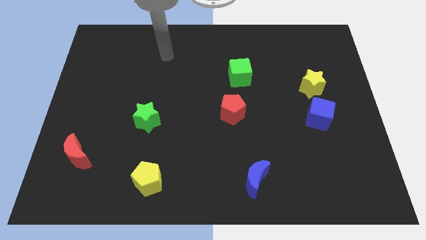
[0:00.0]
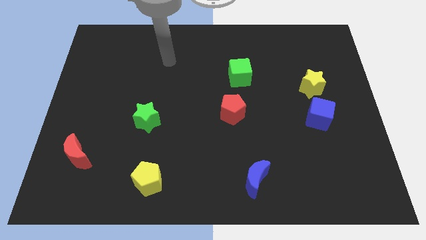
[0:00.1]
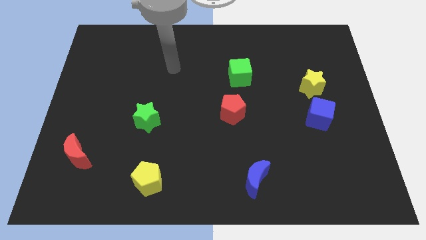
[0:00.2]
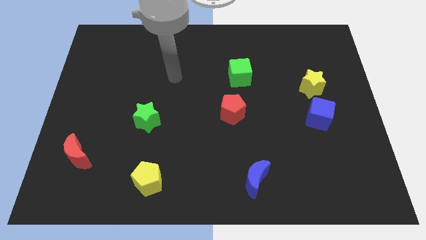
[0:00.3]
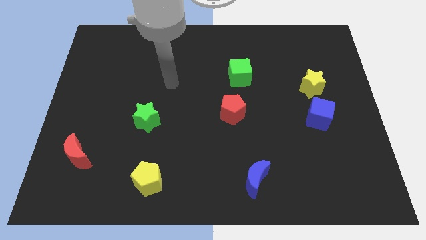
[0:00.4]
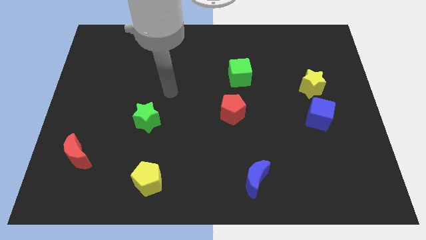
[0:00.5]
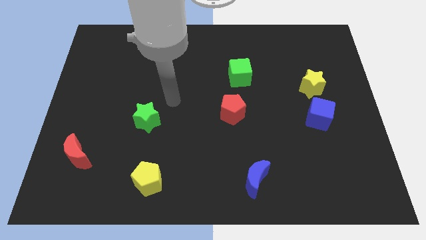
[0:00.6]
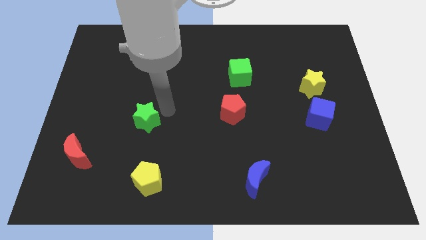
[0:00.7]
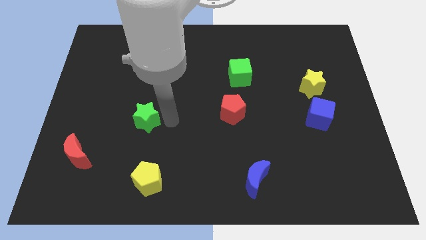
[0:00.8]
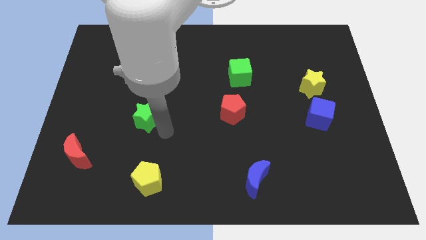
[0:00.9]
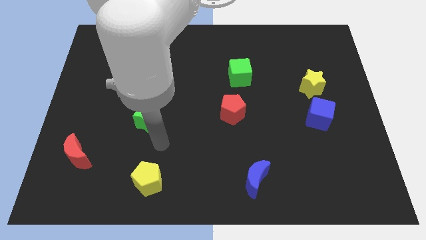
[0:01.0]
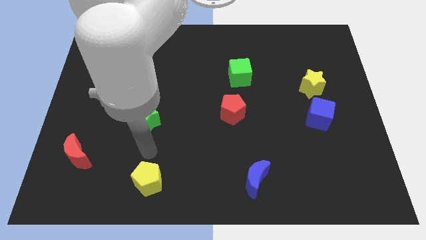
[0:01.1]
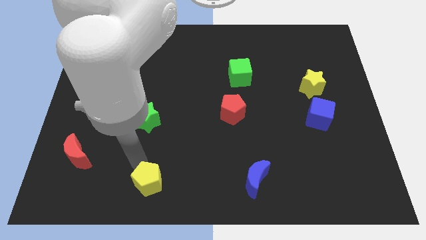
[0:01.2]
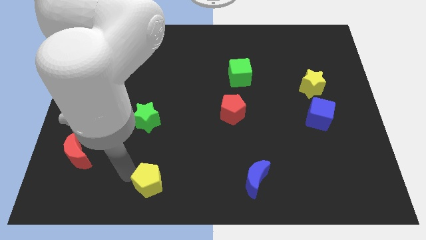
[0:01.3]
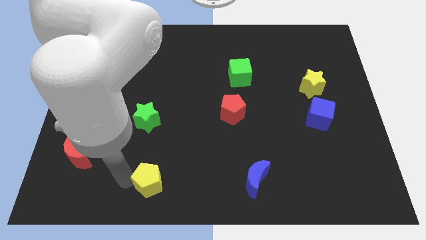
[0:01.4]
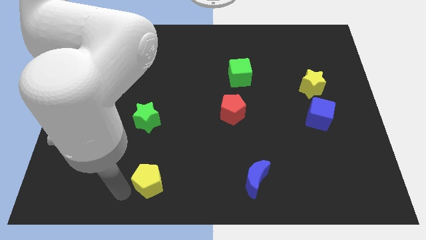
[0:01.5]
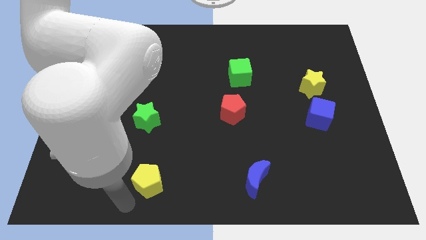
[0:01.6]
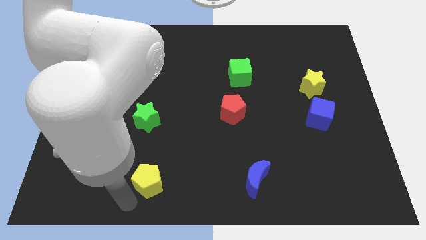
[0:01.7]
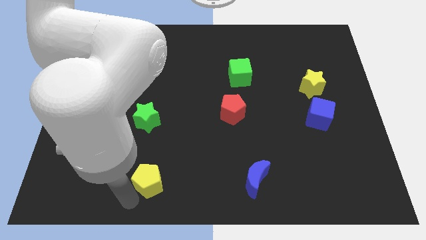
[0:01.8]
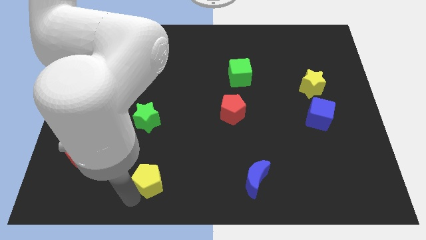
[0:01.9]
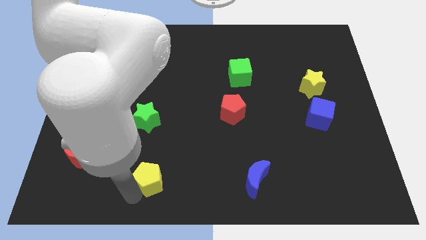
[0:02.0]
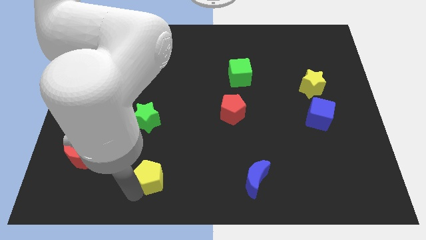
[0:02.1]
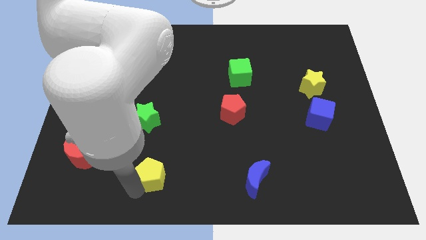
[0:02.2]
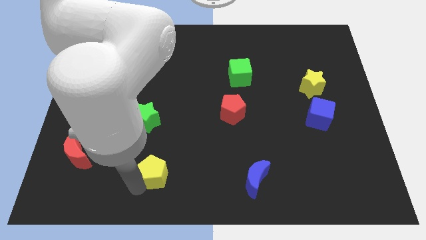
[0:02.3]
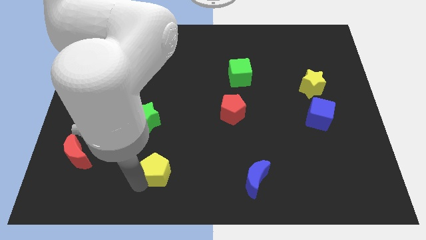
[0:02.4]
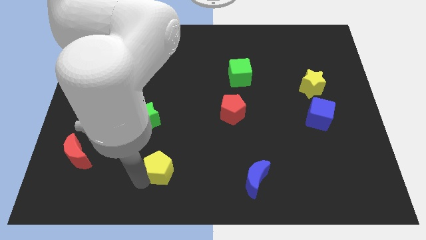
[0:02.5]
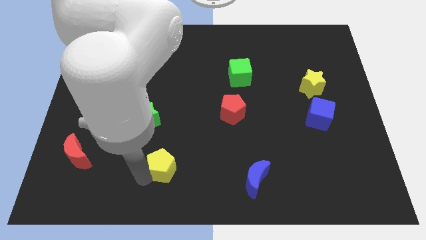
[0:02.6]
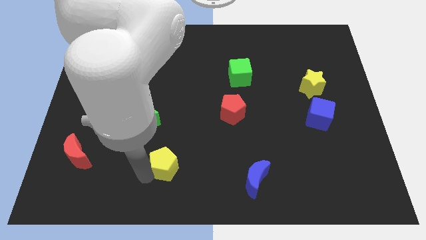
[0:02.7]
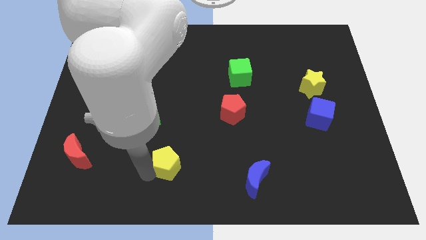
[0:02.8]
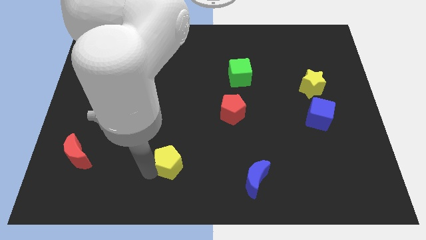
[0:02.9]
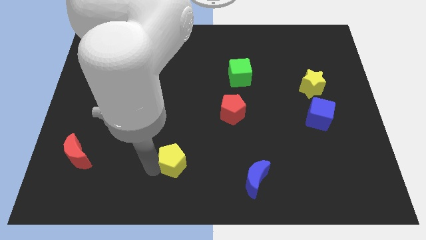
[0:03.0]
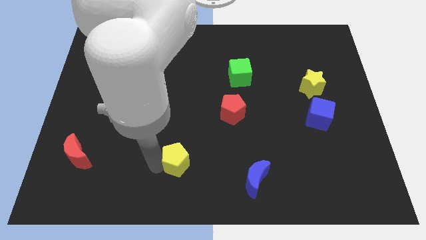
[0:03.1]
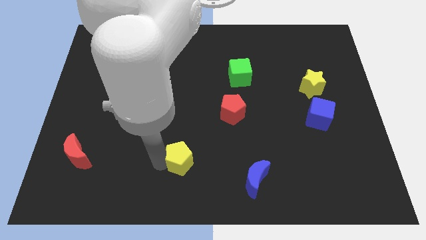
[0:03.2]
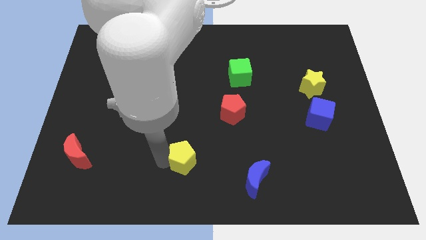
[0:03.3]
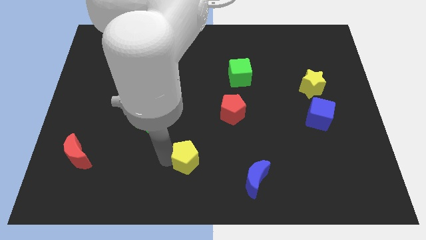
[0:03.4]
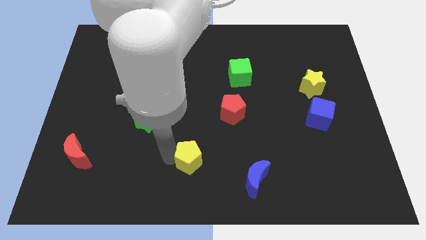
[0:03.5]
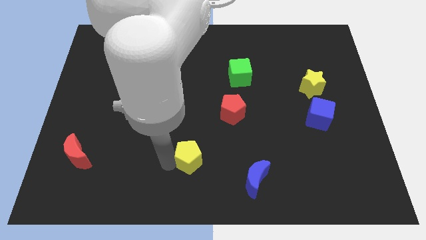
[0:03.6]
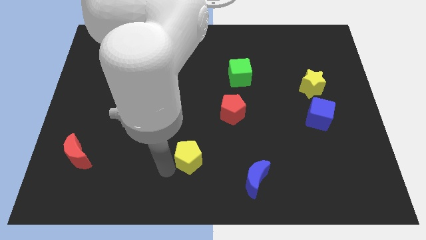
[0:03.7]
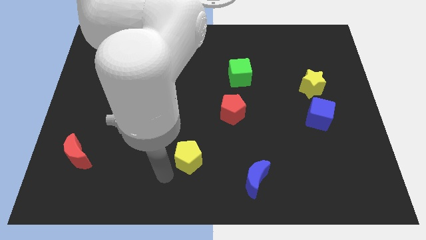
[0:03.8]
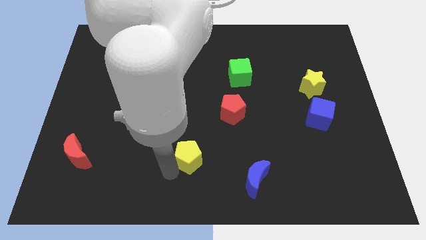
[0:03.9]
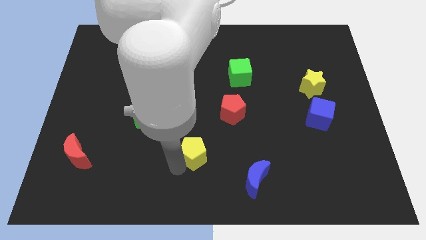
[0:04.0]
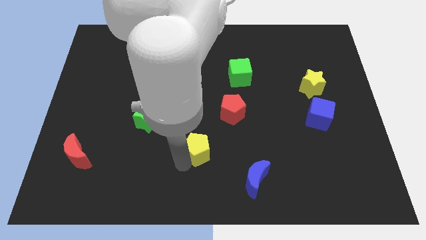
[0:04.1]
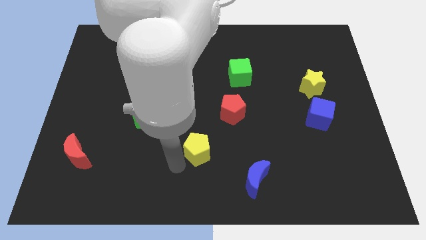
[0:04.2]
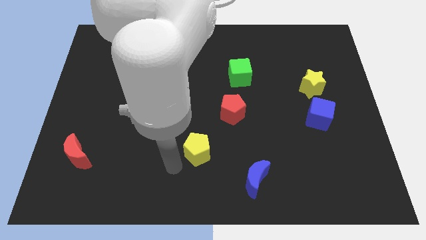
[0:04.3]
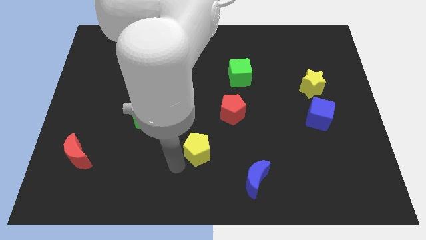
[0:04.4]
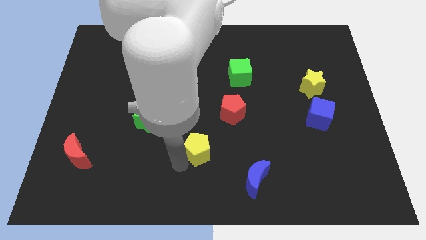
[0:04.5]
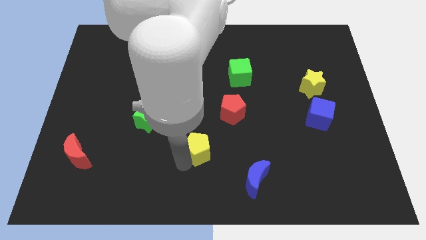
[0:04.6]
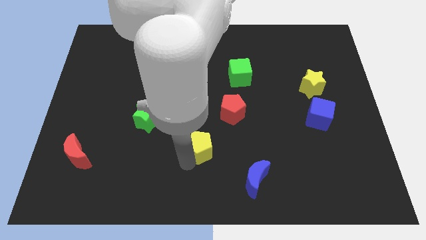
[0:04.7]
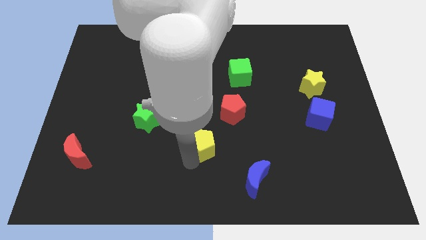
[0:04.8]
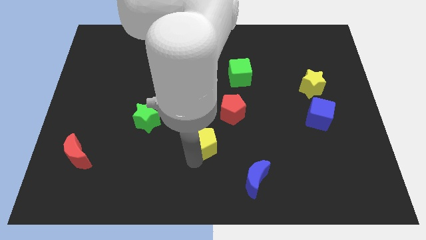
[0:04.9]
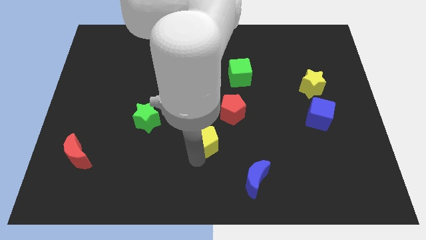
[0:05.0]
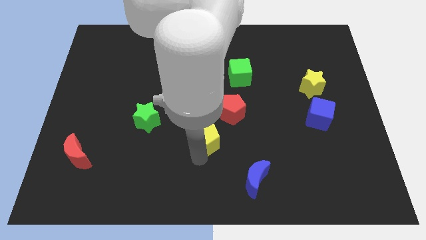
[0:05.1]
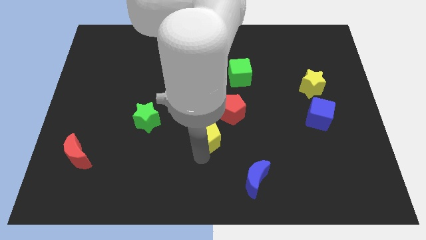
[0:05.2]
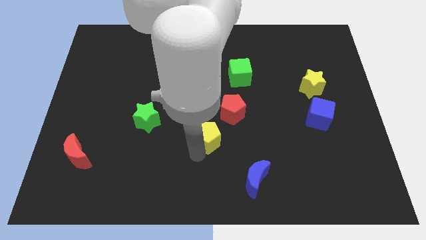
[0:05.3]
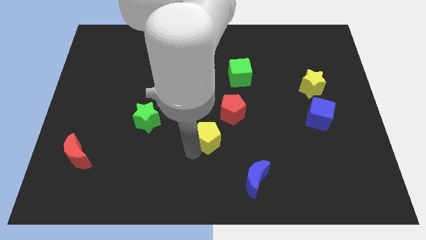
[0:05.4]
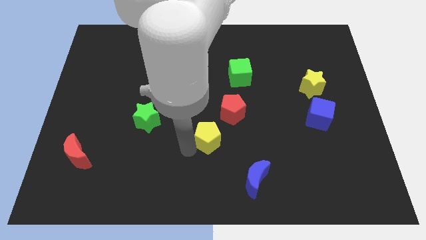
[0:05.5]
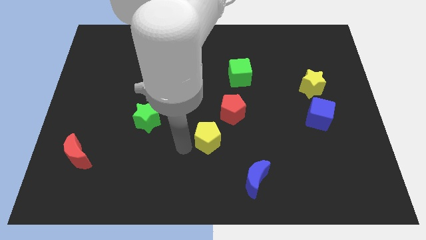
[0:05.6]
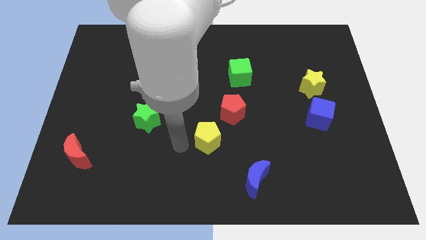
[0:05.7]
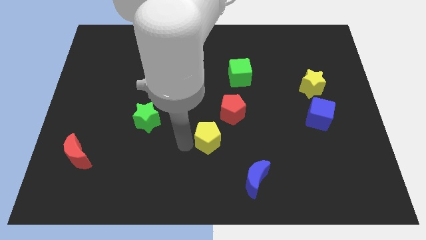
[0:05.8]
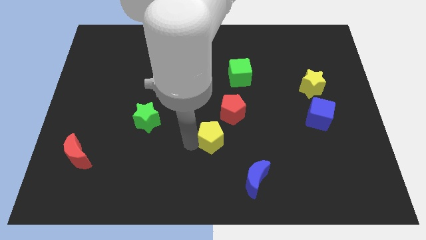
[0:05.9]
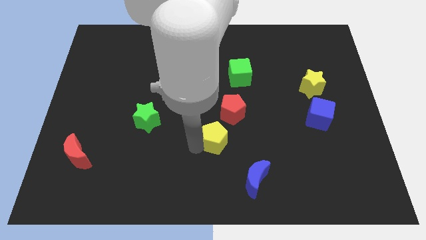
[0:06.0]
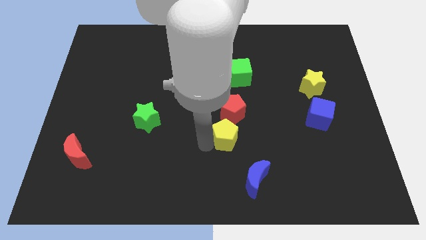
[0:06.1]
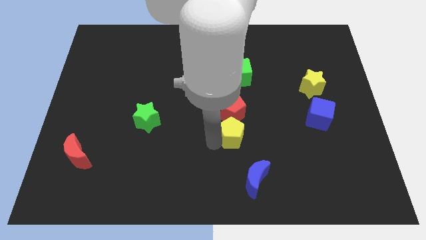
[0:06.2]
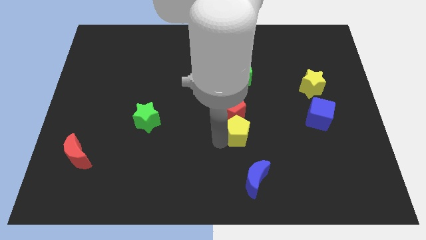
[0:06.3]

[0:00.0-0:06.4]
push the yellow pentagon upwards and to the right diagonally

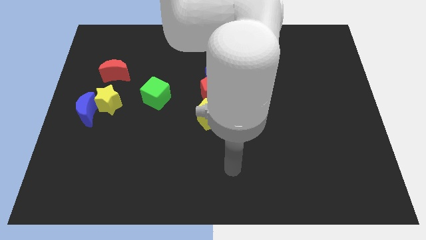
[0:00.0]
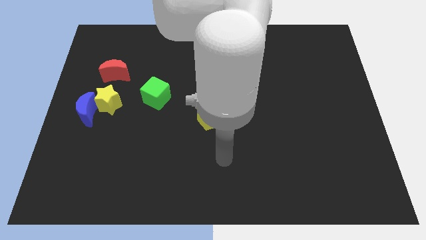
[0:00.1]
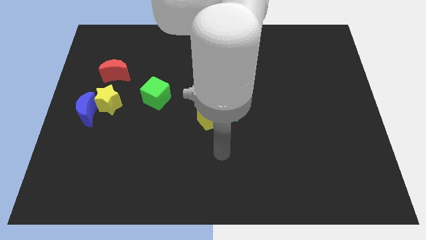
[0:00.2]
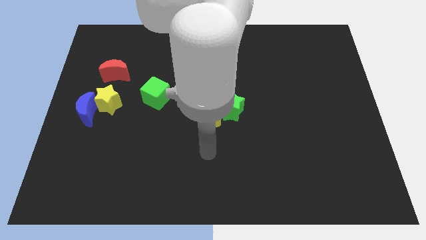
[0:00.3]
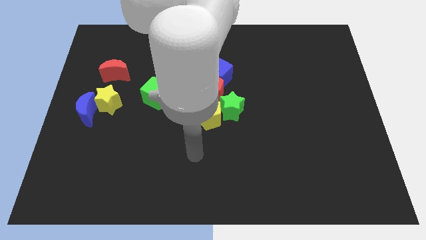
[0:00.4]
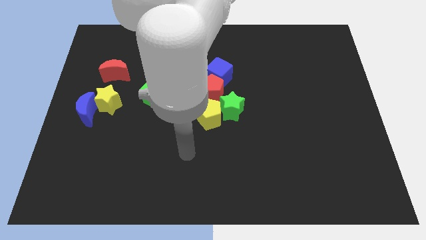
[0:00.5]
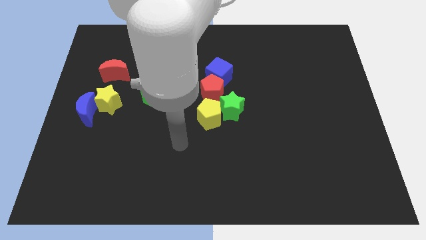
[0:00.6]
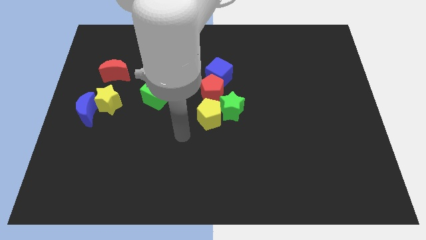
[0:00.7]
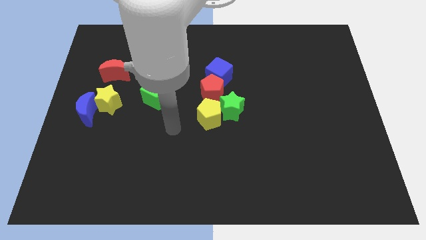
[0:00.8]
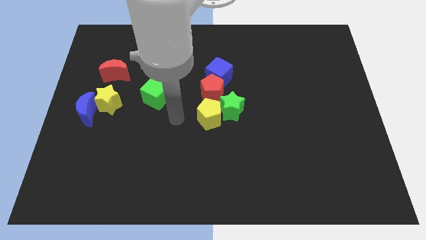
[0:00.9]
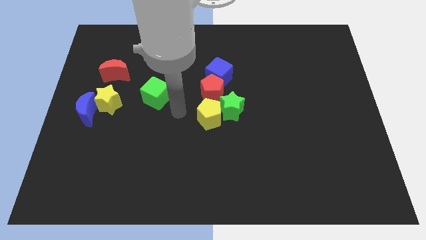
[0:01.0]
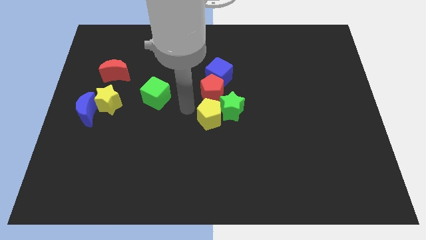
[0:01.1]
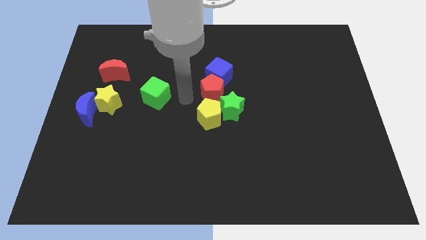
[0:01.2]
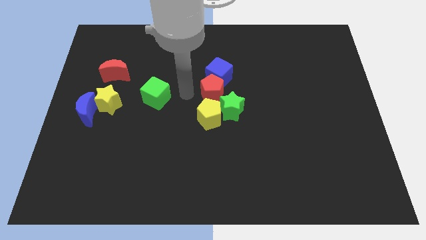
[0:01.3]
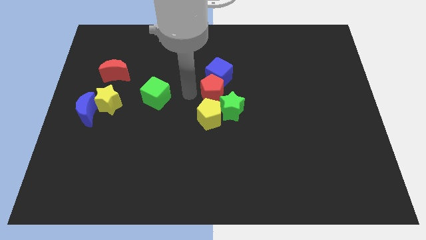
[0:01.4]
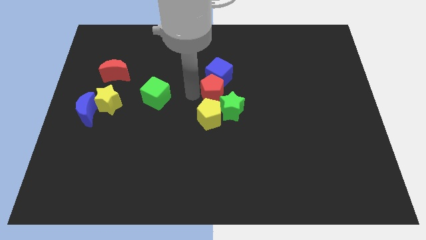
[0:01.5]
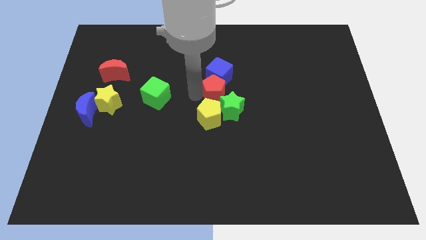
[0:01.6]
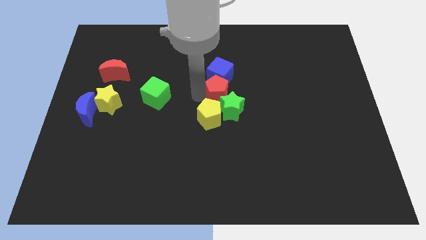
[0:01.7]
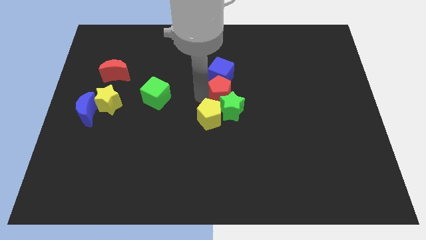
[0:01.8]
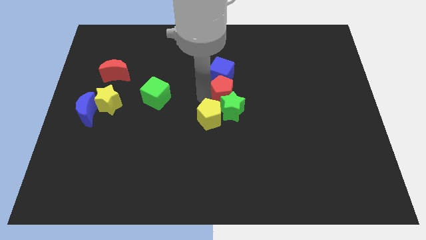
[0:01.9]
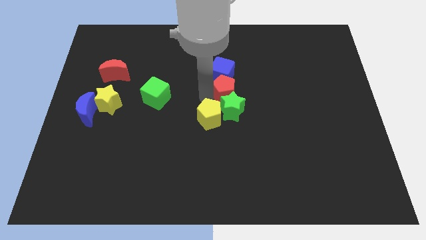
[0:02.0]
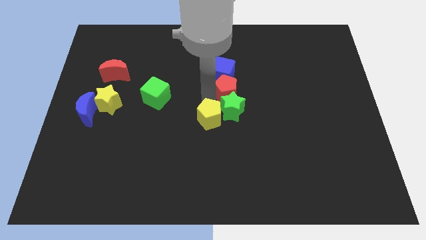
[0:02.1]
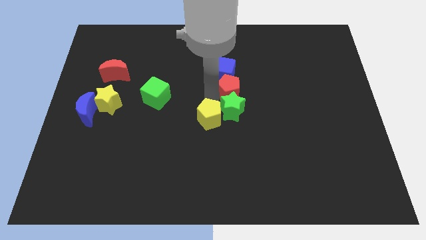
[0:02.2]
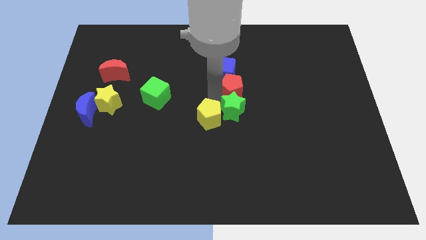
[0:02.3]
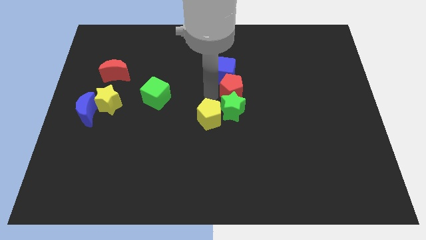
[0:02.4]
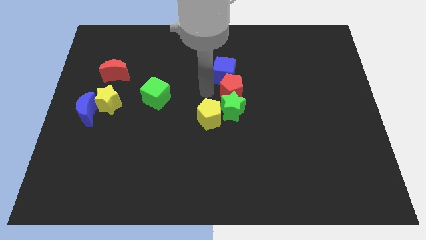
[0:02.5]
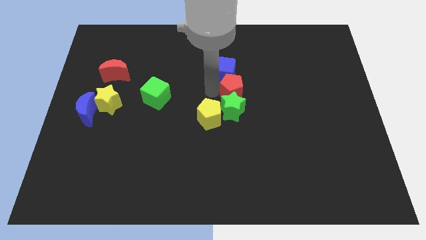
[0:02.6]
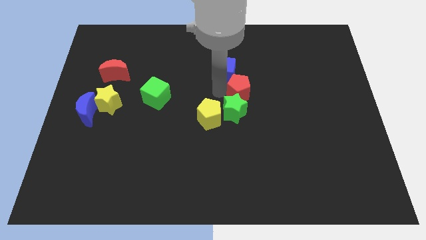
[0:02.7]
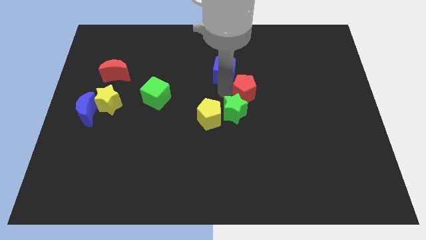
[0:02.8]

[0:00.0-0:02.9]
push the red pentagon to the right a little
